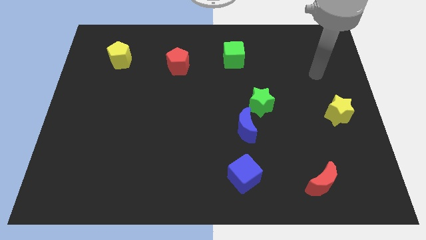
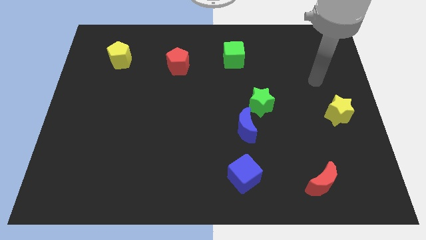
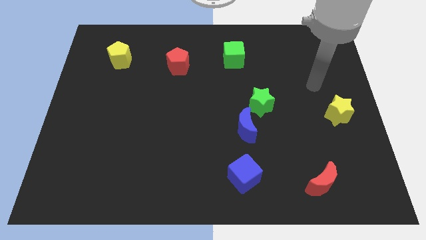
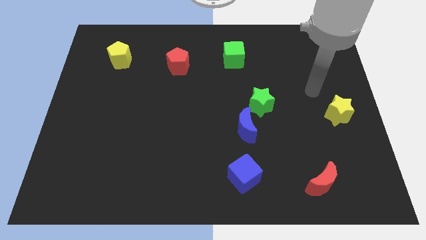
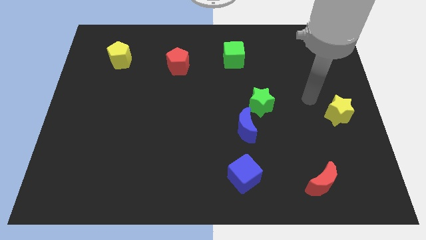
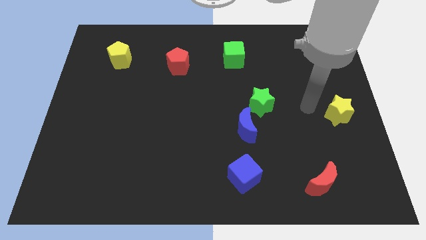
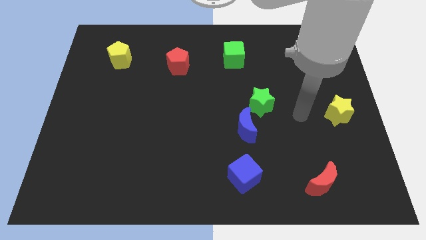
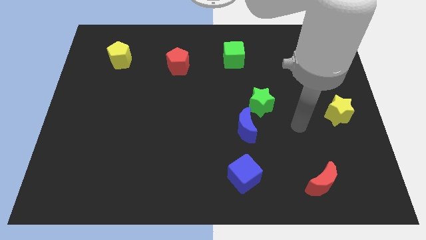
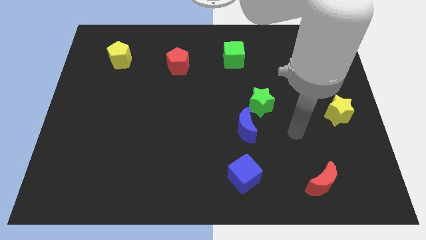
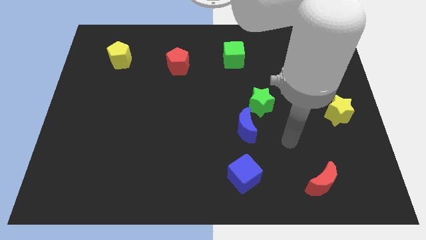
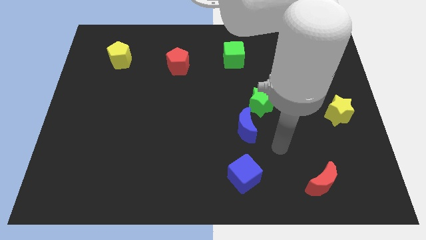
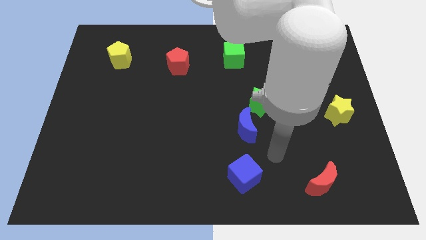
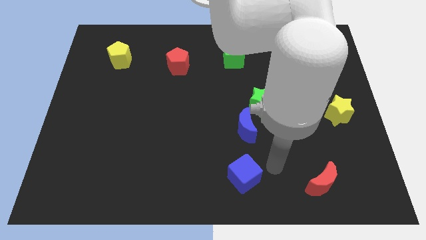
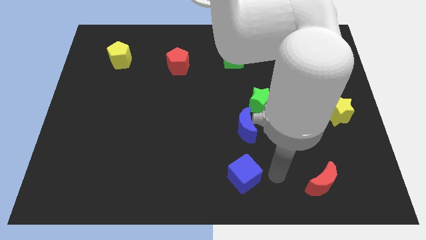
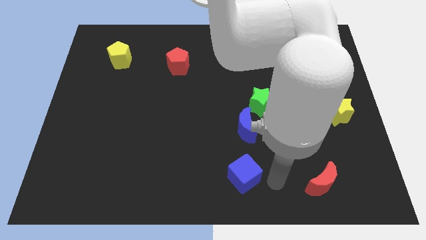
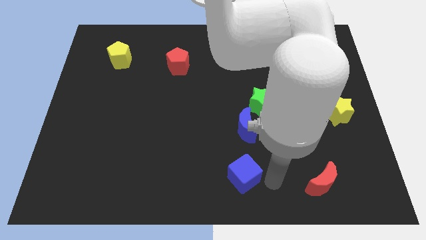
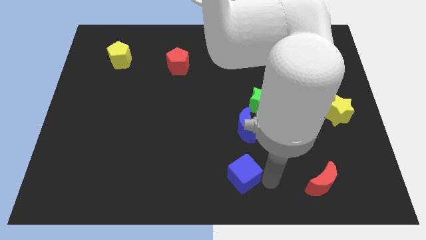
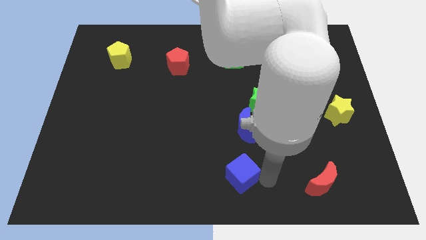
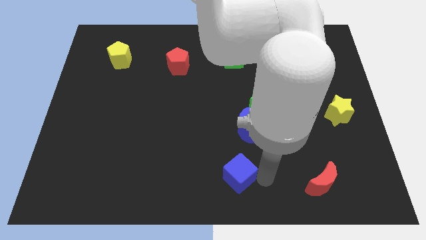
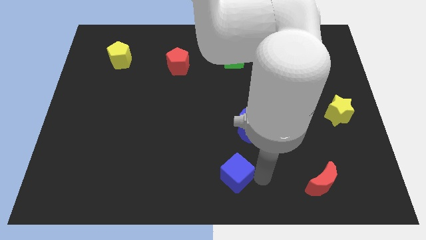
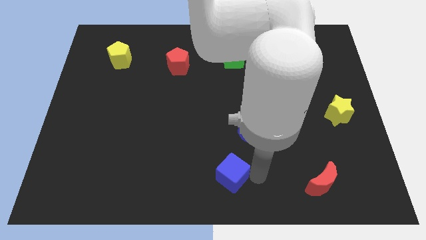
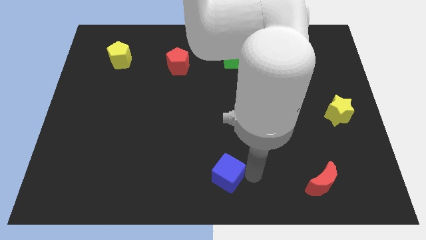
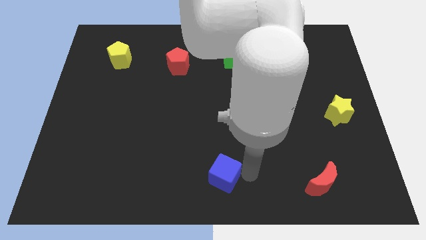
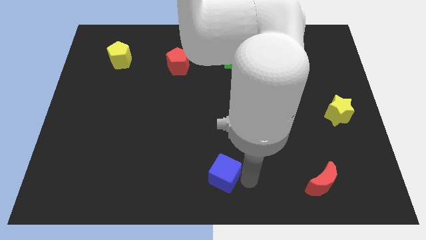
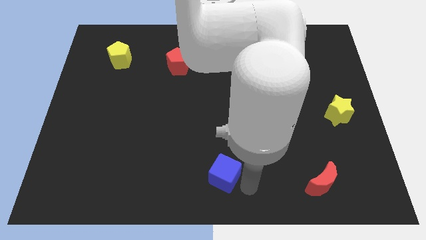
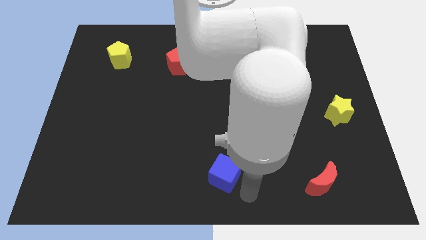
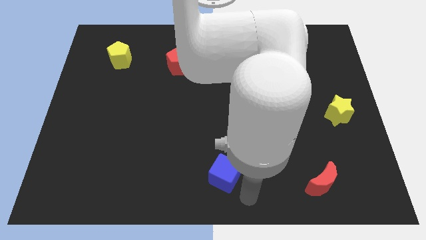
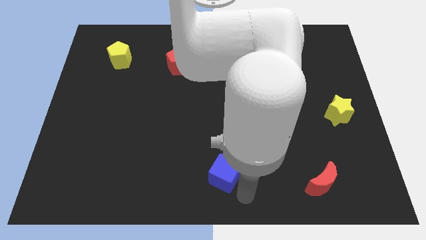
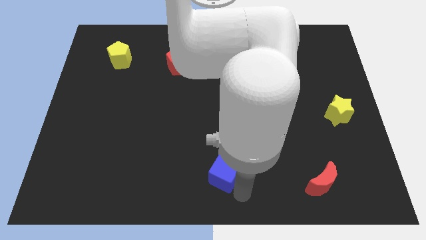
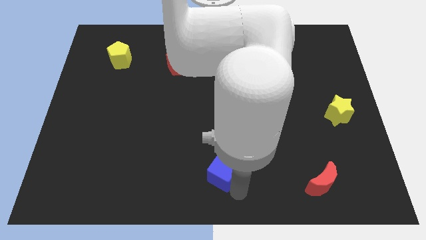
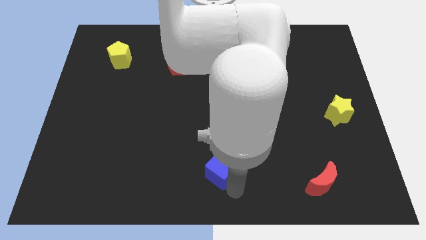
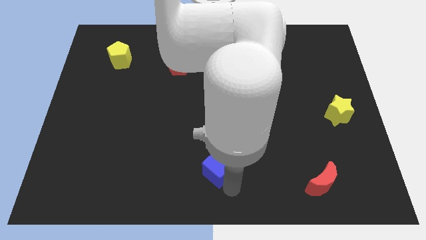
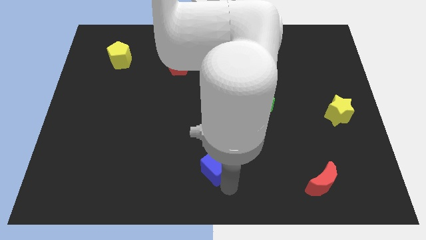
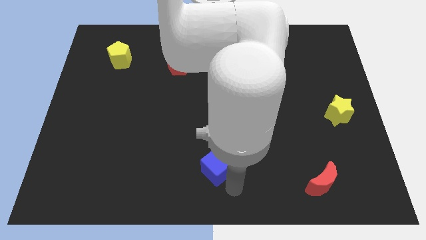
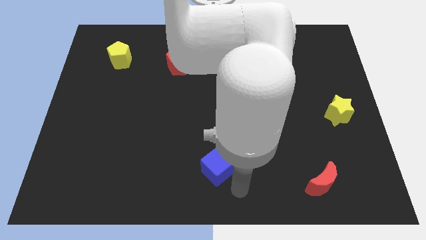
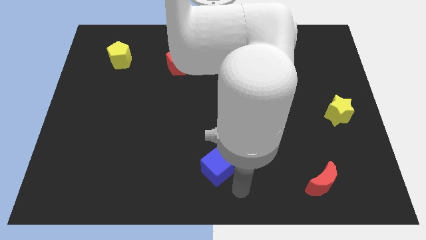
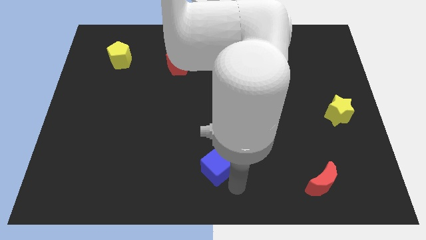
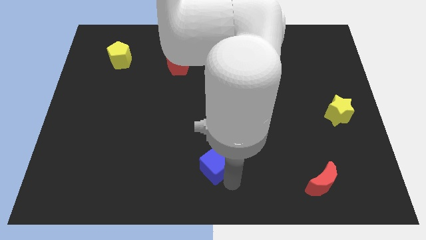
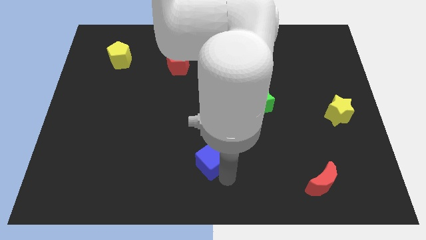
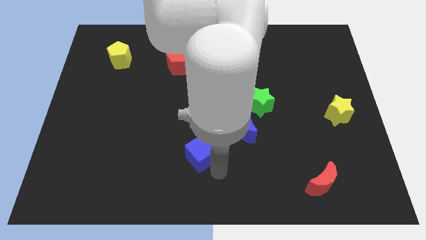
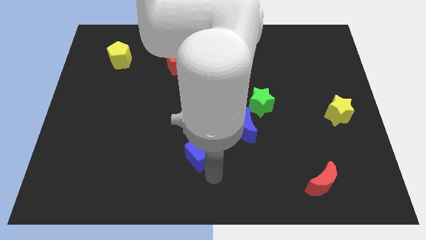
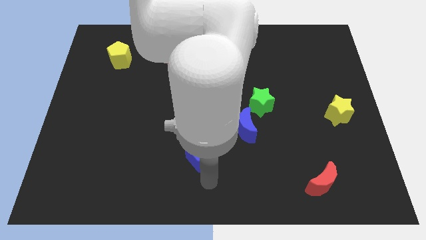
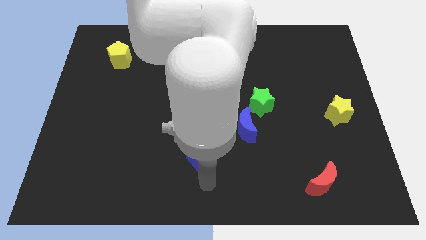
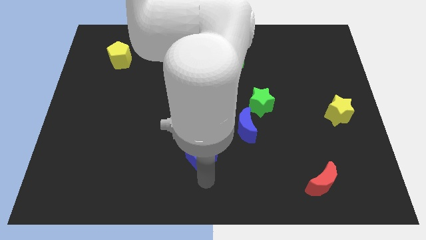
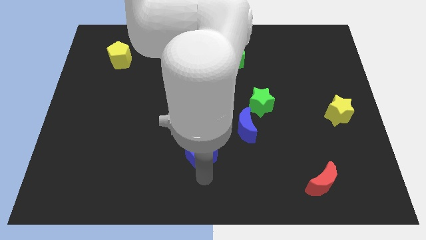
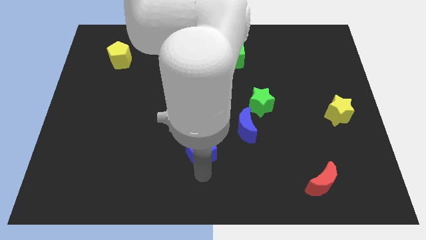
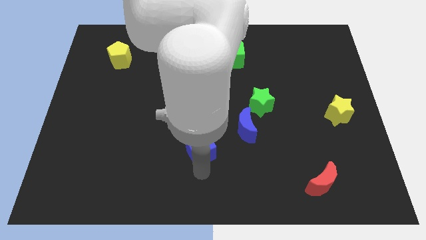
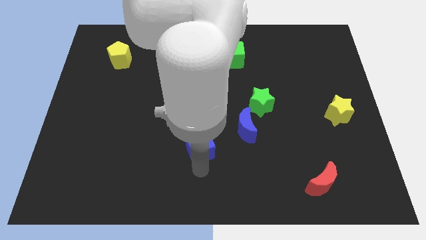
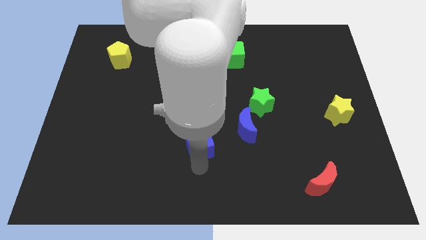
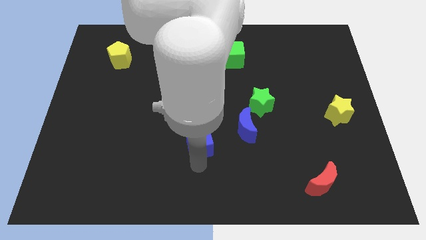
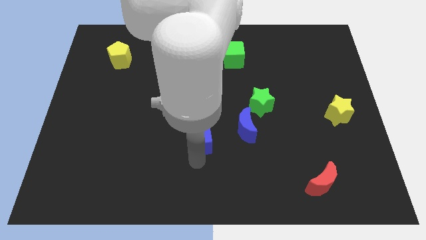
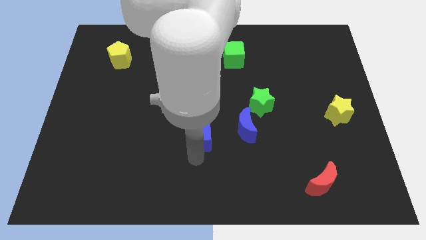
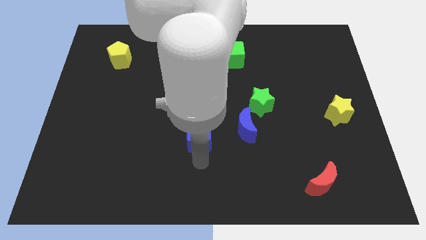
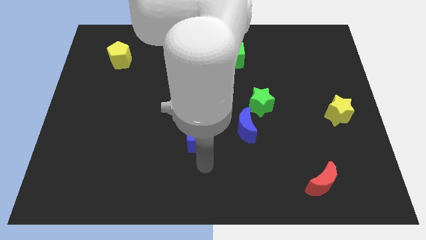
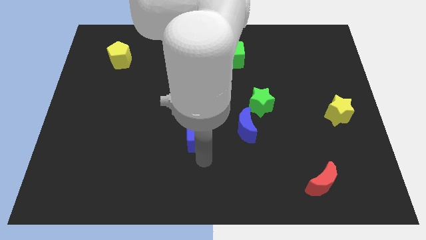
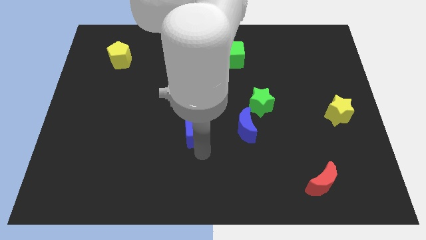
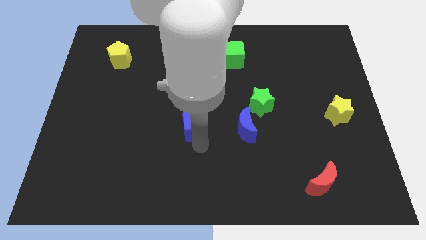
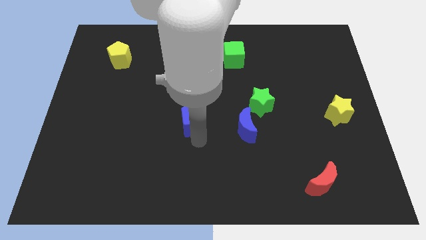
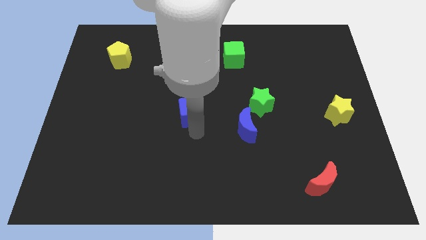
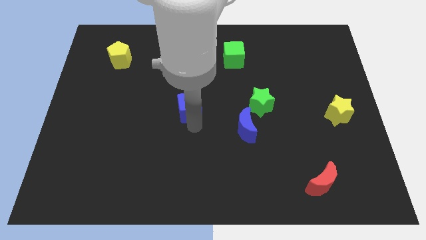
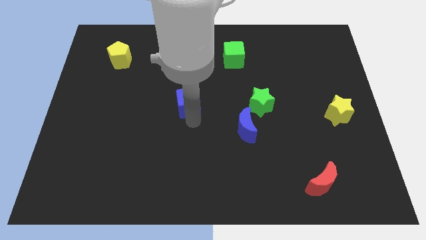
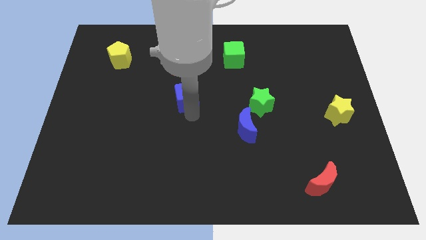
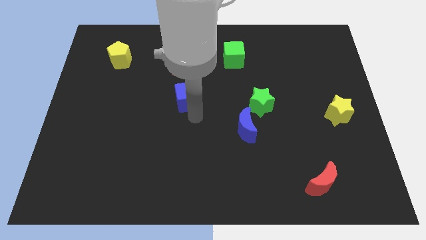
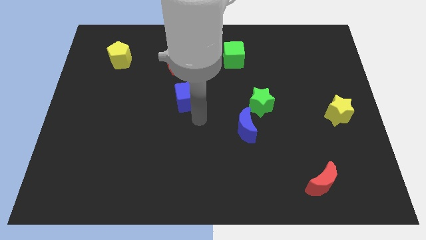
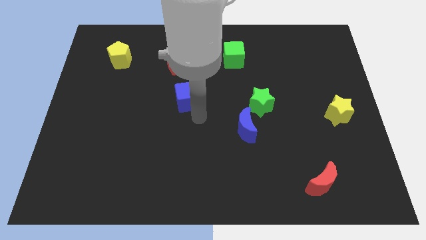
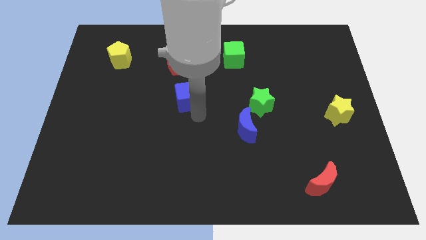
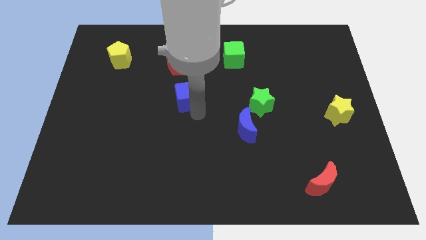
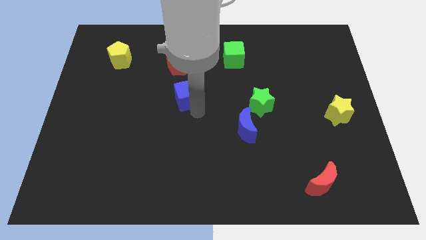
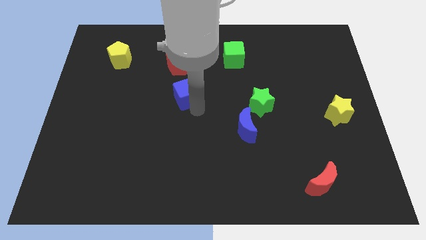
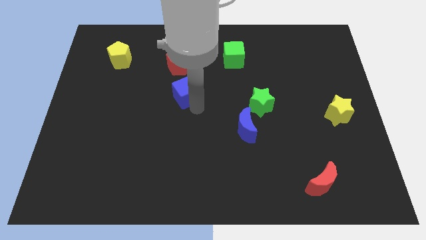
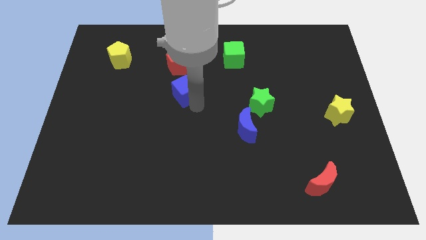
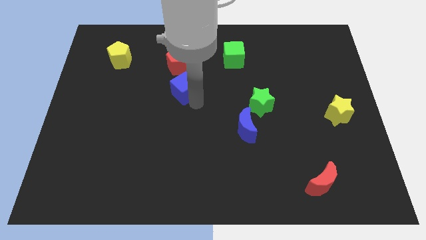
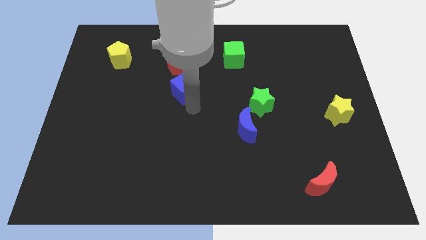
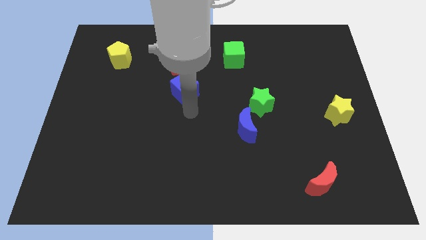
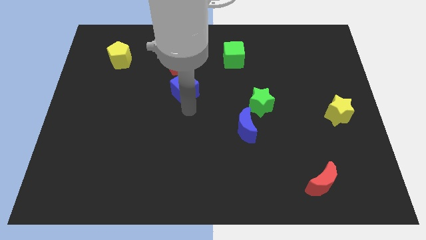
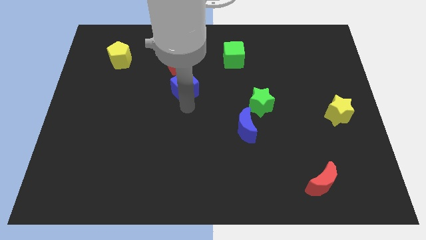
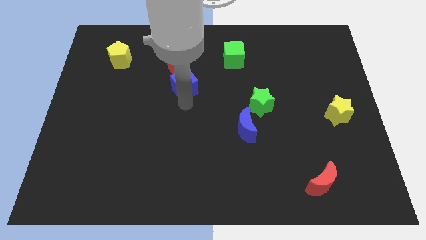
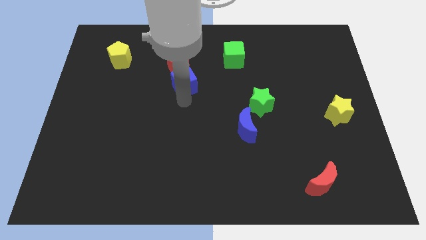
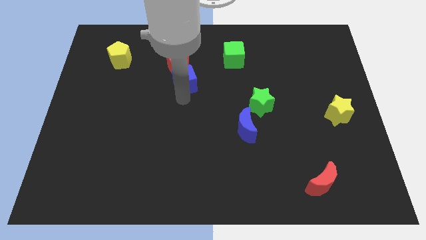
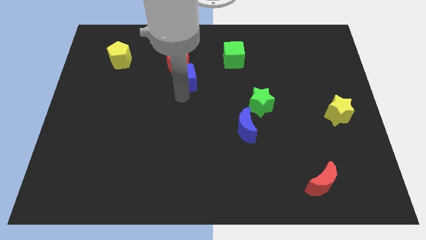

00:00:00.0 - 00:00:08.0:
move the blue cube close to the red pentagon

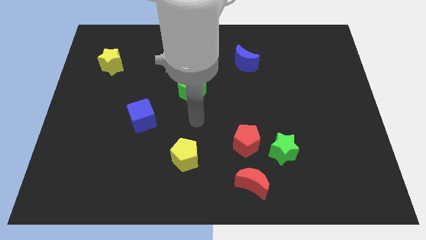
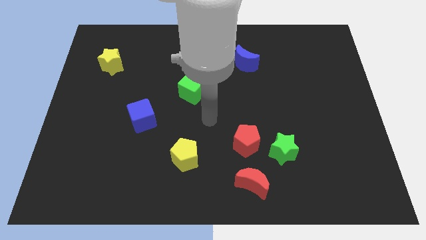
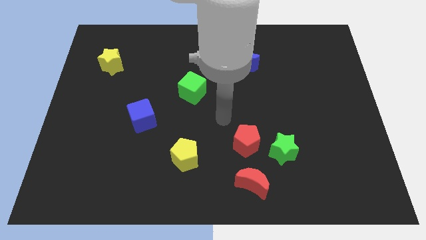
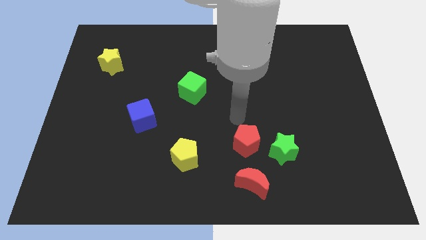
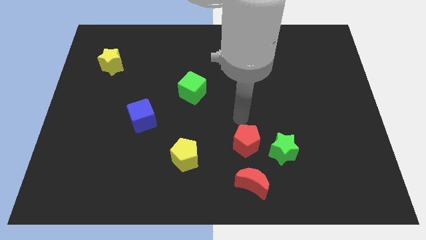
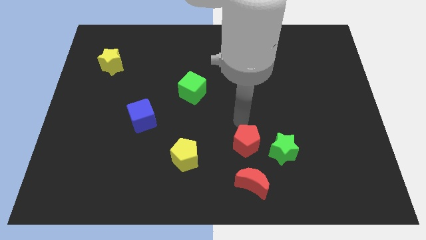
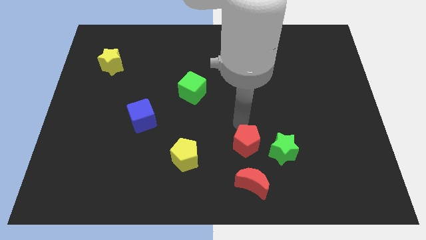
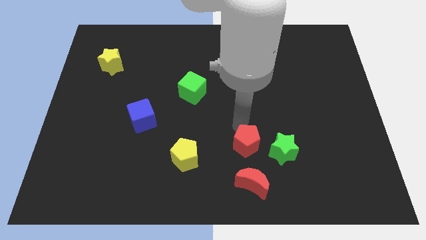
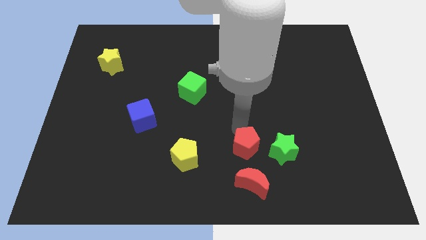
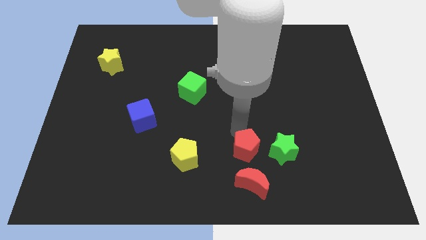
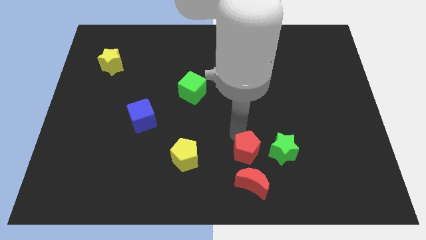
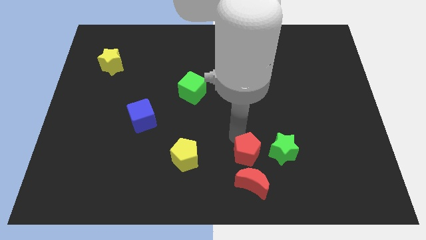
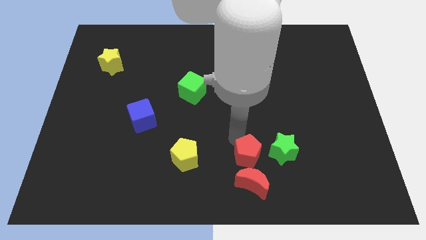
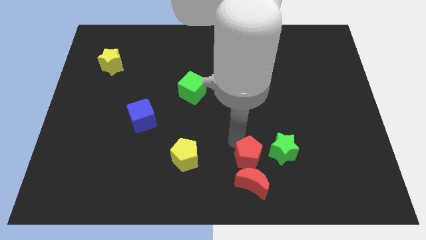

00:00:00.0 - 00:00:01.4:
move the red pentagon to the red moon
